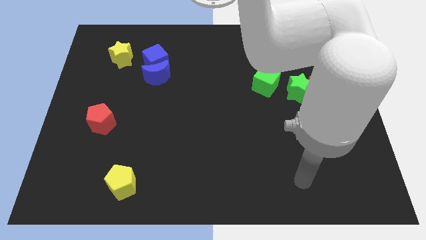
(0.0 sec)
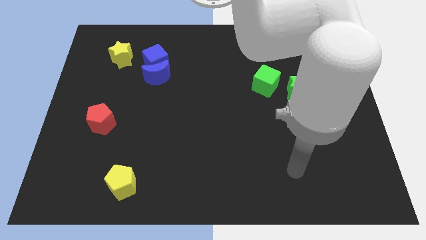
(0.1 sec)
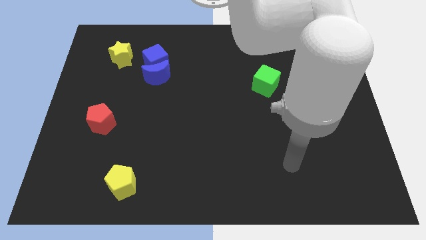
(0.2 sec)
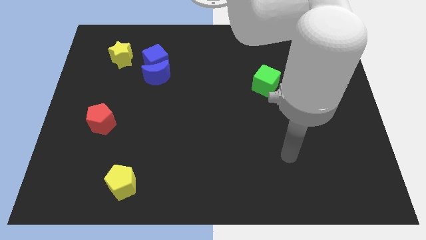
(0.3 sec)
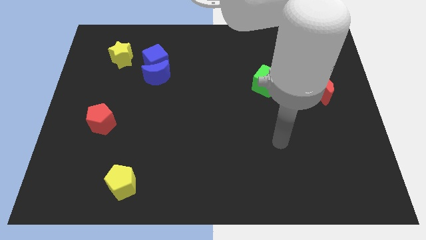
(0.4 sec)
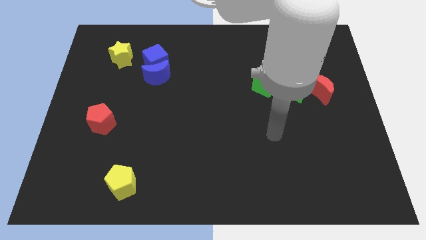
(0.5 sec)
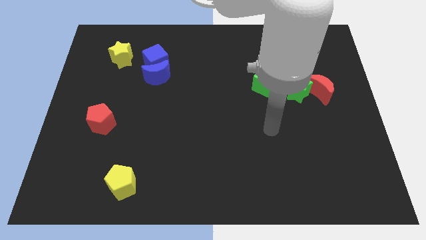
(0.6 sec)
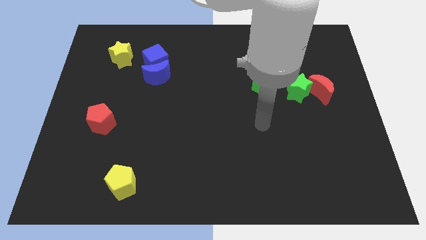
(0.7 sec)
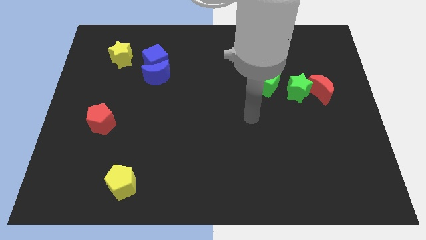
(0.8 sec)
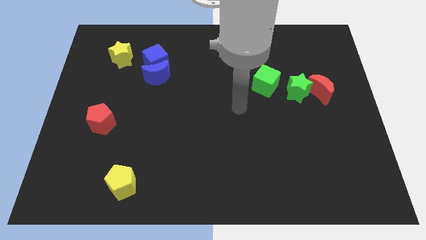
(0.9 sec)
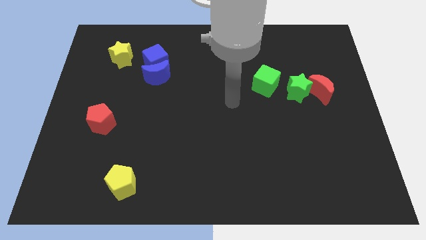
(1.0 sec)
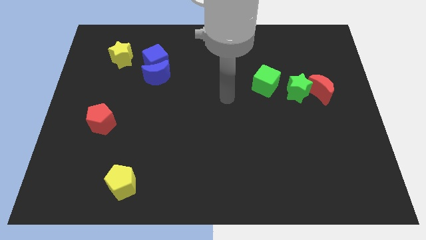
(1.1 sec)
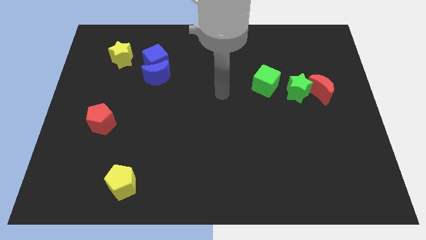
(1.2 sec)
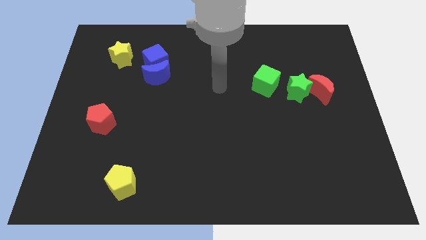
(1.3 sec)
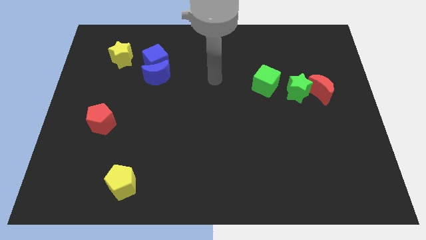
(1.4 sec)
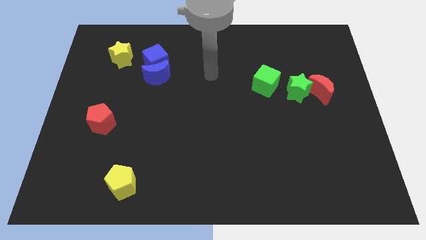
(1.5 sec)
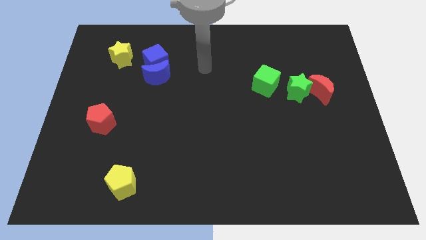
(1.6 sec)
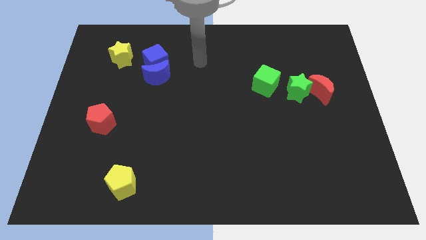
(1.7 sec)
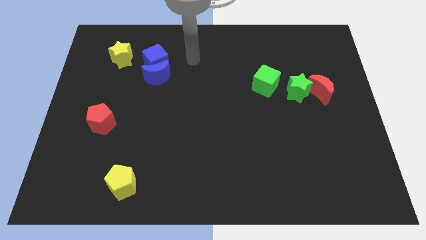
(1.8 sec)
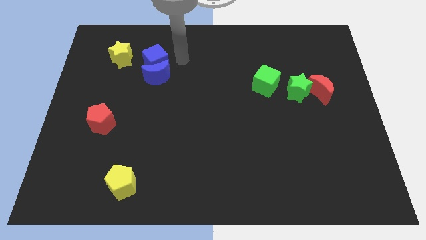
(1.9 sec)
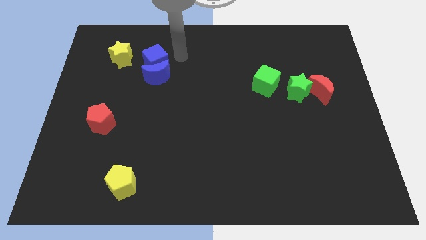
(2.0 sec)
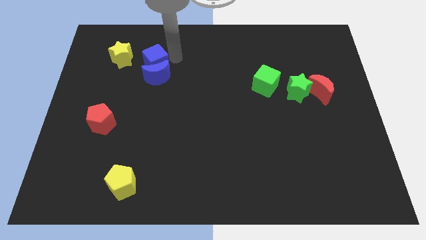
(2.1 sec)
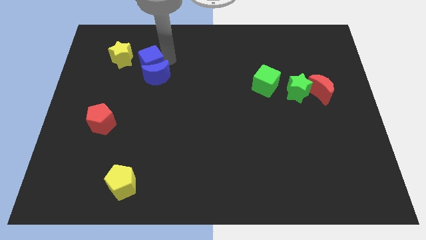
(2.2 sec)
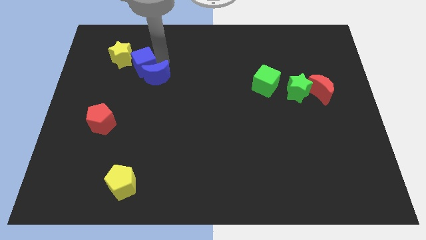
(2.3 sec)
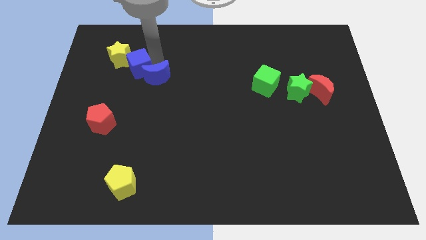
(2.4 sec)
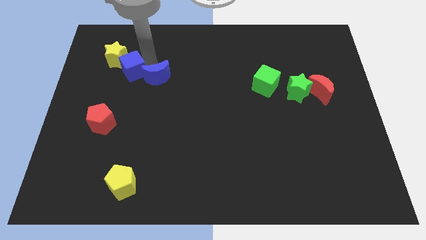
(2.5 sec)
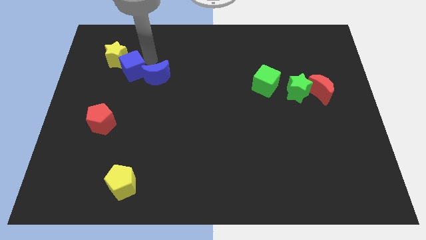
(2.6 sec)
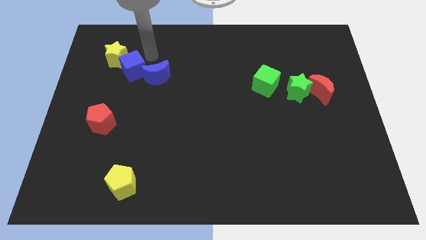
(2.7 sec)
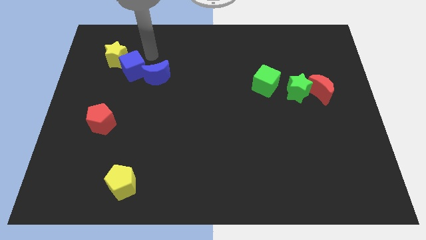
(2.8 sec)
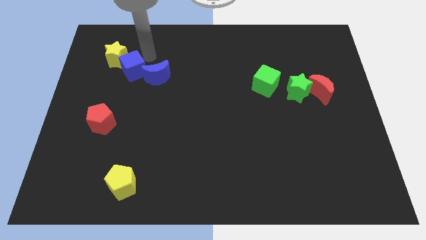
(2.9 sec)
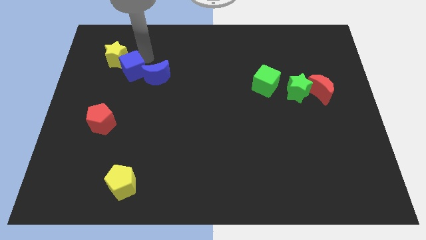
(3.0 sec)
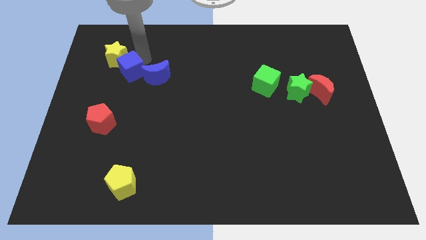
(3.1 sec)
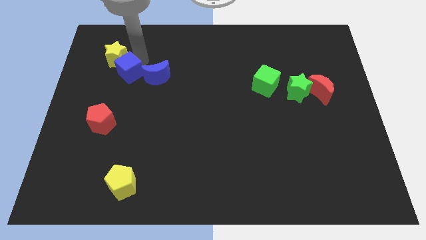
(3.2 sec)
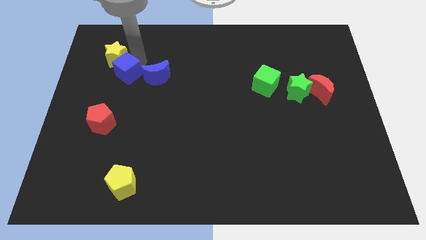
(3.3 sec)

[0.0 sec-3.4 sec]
push the blue cube a bit down and left diagonally

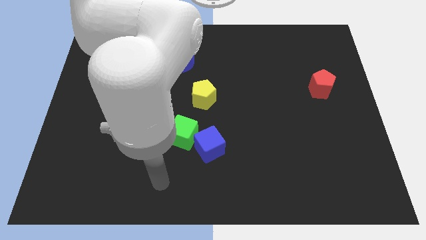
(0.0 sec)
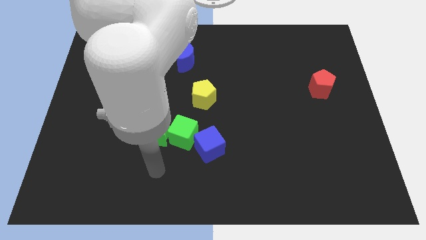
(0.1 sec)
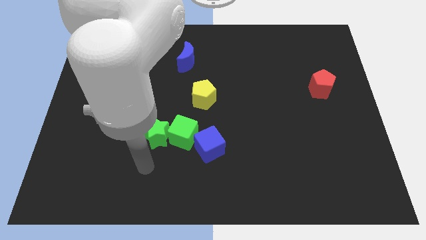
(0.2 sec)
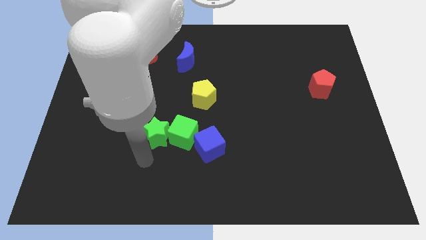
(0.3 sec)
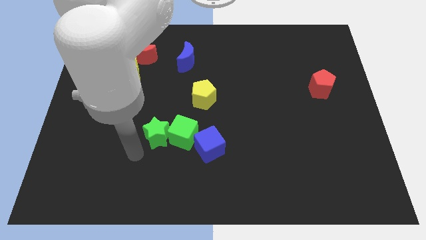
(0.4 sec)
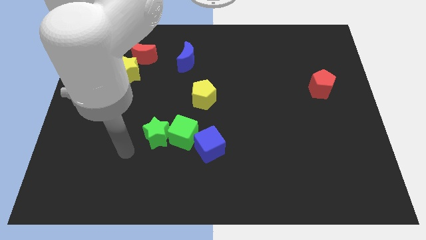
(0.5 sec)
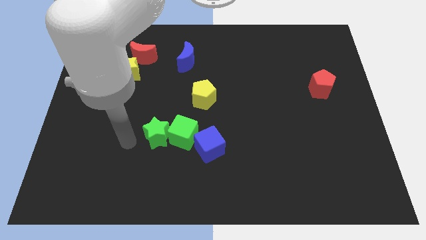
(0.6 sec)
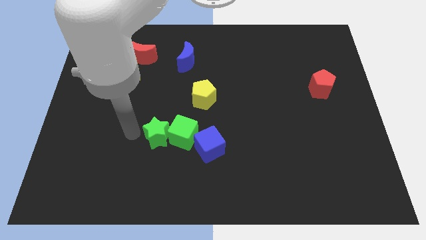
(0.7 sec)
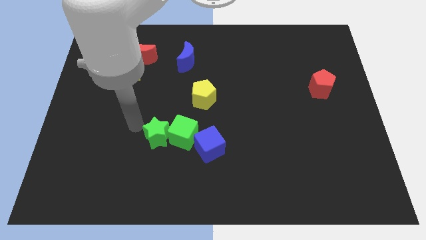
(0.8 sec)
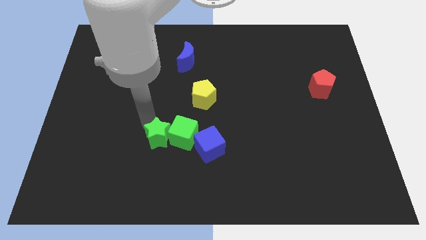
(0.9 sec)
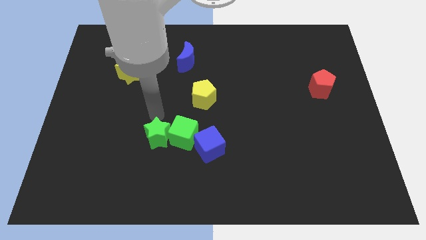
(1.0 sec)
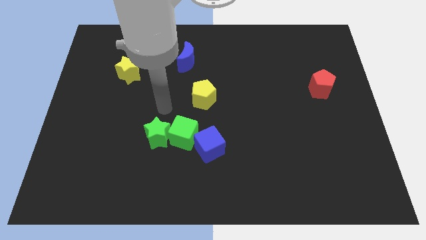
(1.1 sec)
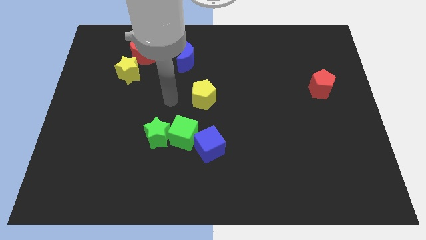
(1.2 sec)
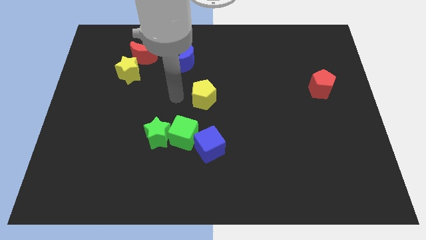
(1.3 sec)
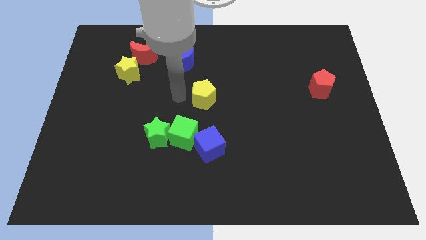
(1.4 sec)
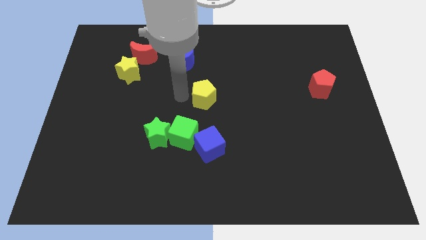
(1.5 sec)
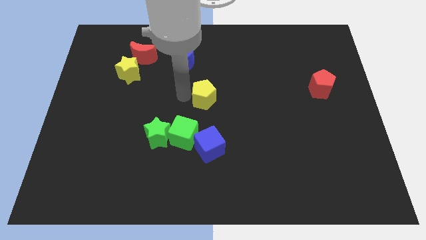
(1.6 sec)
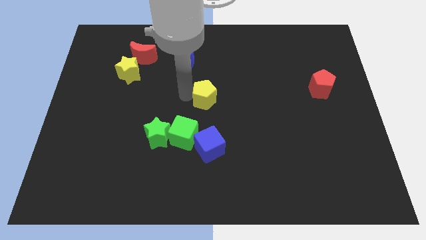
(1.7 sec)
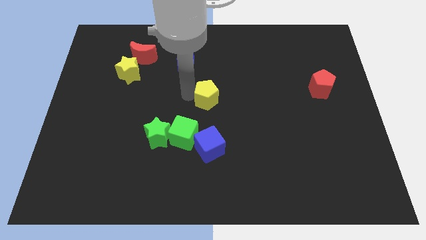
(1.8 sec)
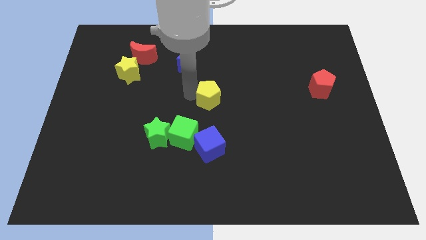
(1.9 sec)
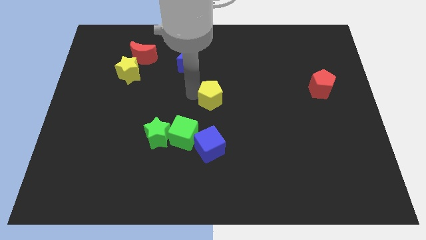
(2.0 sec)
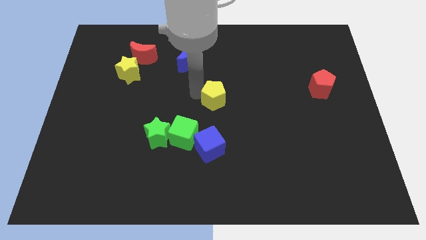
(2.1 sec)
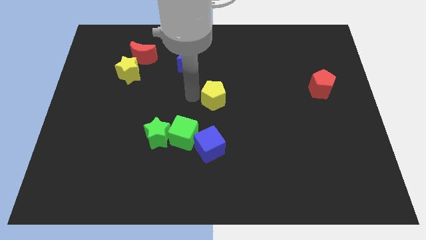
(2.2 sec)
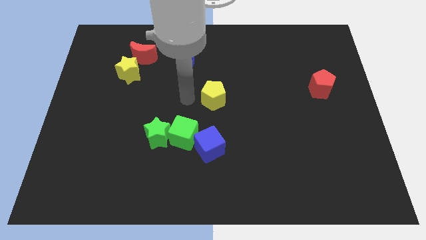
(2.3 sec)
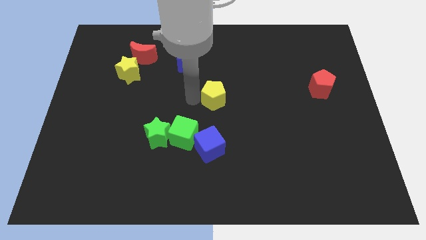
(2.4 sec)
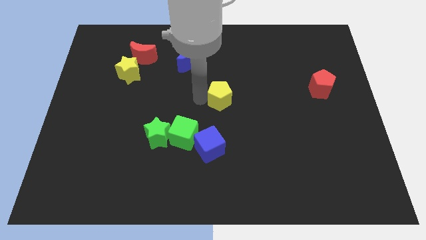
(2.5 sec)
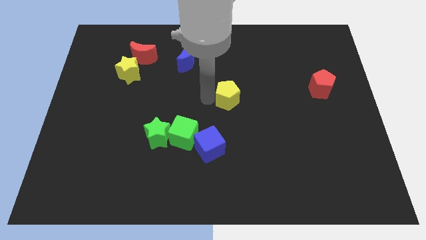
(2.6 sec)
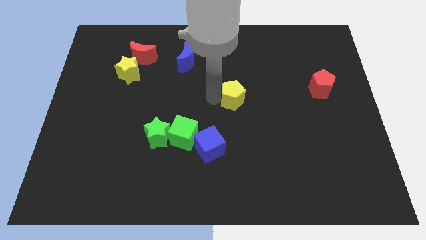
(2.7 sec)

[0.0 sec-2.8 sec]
move the yellow pentagon to the right a bit

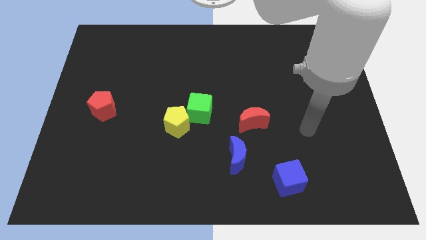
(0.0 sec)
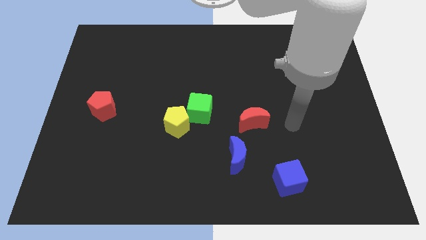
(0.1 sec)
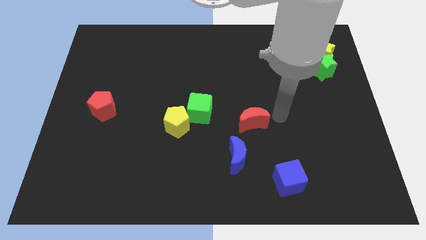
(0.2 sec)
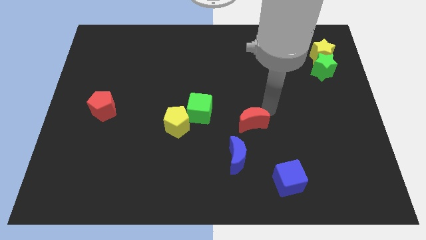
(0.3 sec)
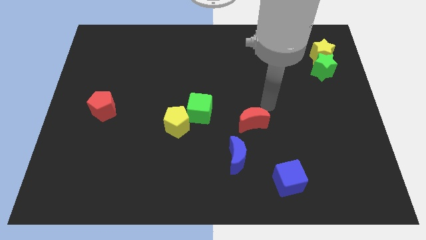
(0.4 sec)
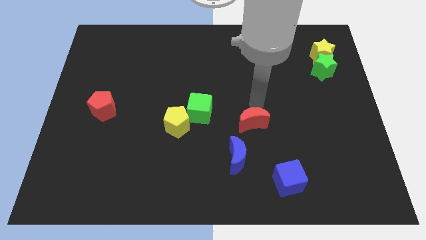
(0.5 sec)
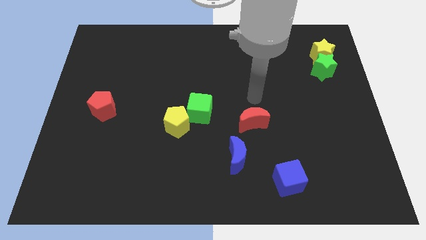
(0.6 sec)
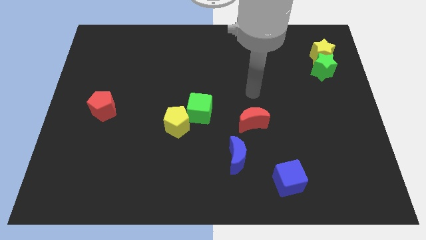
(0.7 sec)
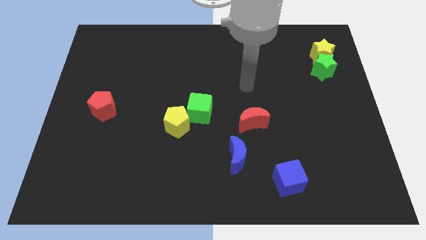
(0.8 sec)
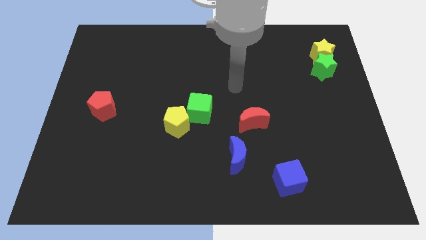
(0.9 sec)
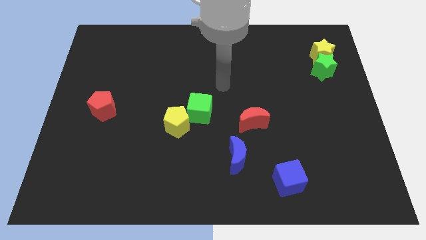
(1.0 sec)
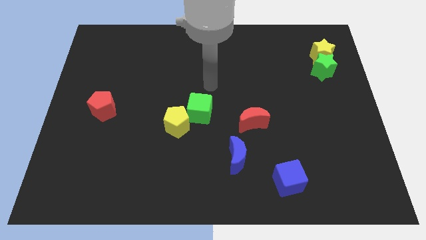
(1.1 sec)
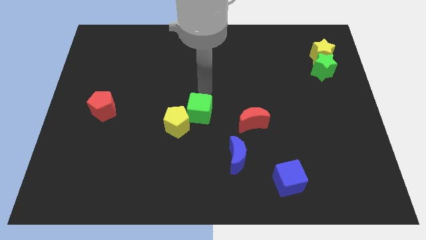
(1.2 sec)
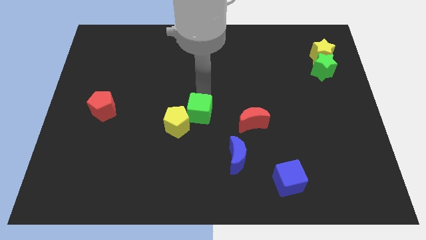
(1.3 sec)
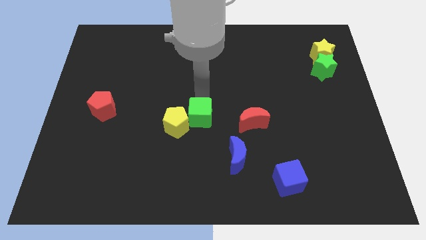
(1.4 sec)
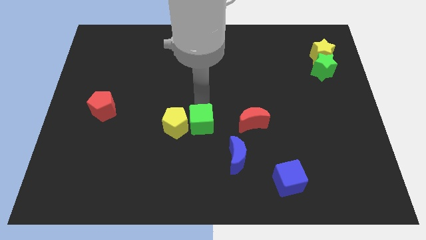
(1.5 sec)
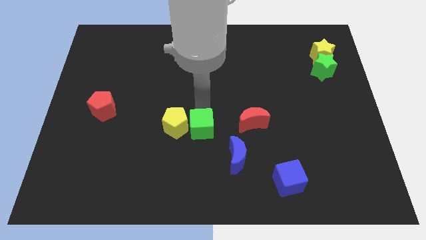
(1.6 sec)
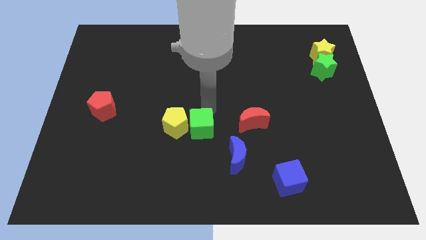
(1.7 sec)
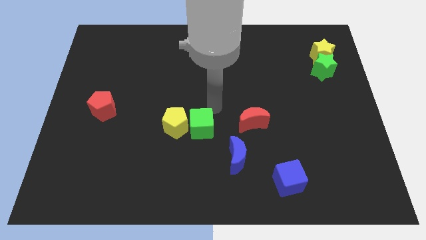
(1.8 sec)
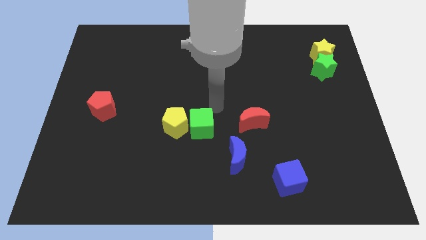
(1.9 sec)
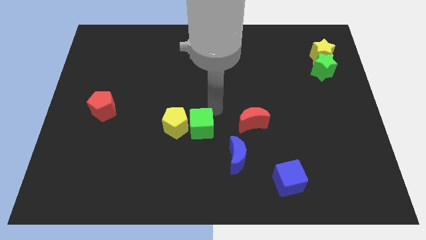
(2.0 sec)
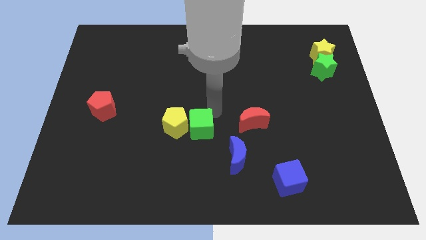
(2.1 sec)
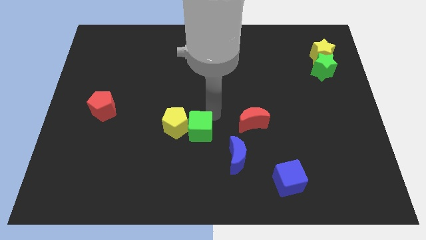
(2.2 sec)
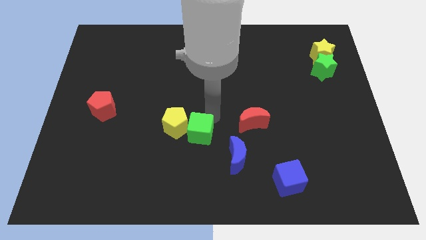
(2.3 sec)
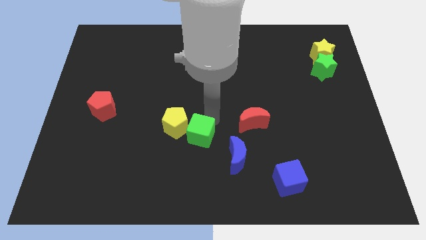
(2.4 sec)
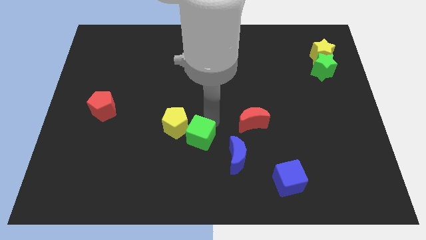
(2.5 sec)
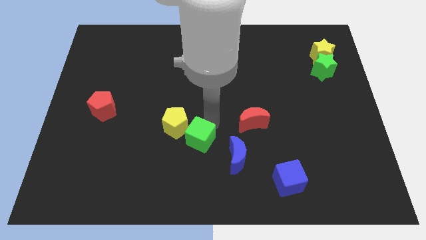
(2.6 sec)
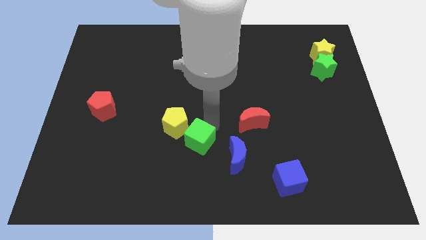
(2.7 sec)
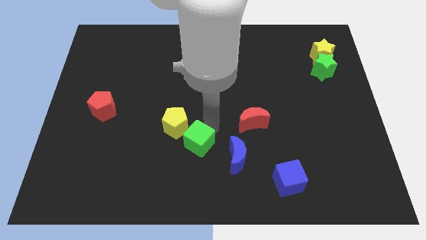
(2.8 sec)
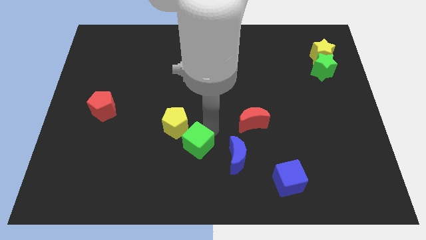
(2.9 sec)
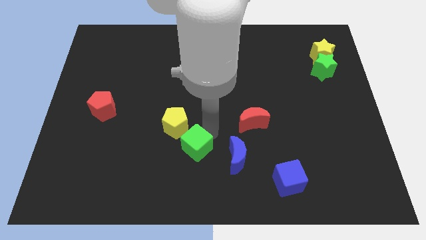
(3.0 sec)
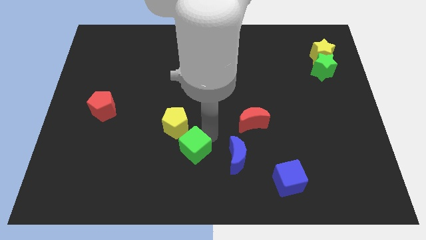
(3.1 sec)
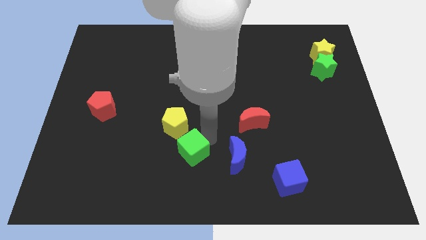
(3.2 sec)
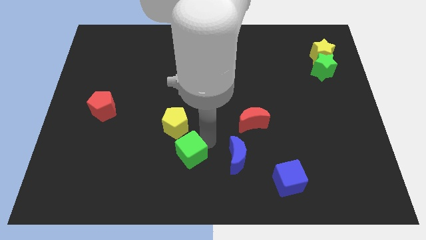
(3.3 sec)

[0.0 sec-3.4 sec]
move the green cube downwards and left a little bit
